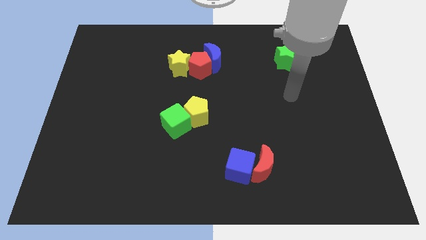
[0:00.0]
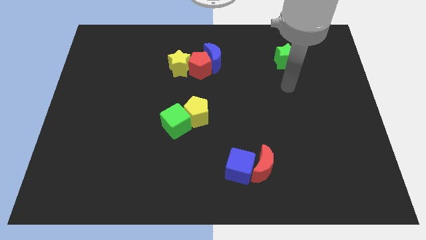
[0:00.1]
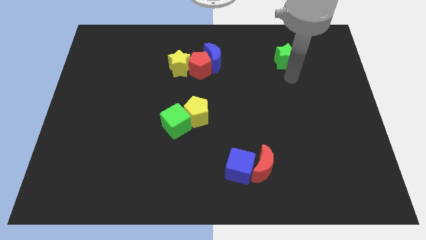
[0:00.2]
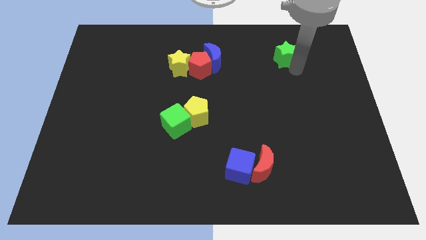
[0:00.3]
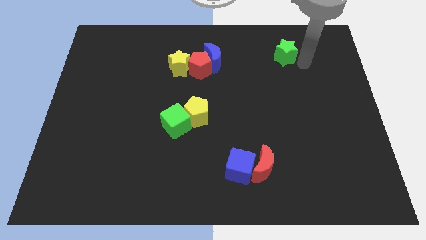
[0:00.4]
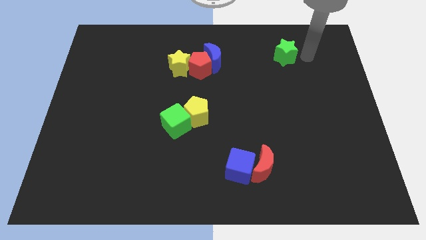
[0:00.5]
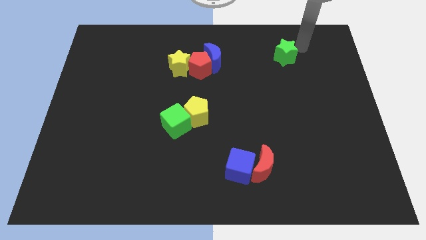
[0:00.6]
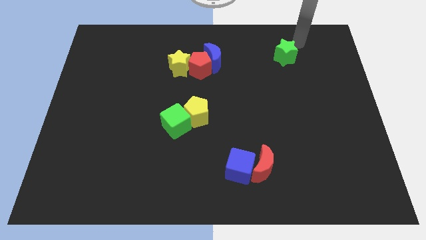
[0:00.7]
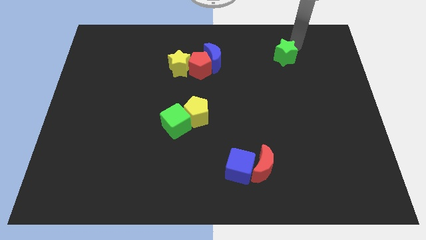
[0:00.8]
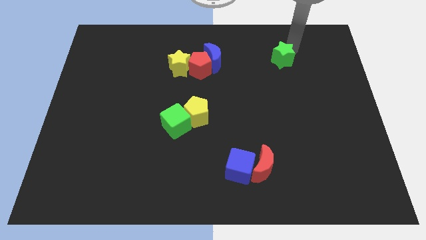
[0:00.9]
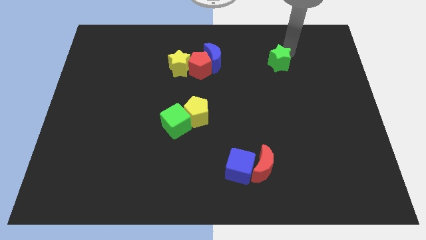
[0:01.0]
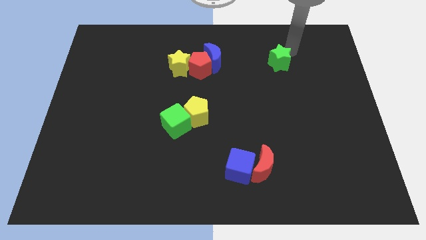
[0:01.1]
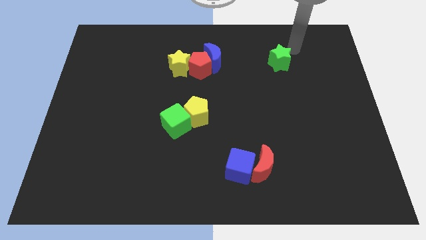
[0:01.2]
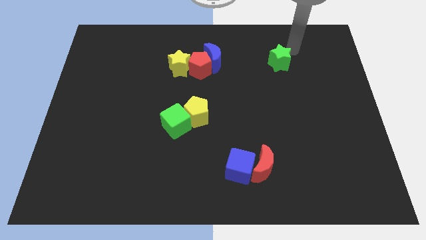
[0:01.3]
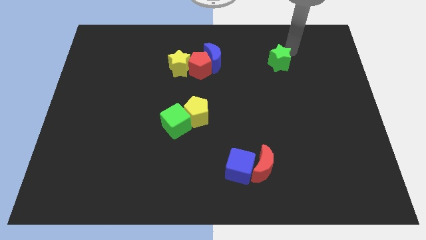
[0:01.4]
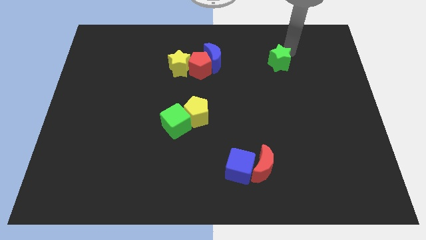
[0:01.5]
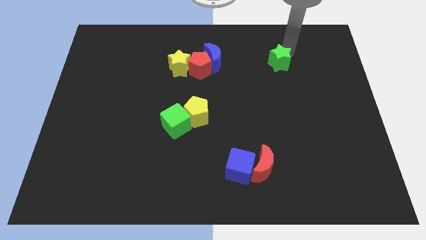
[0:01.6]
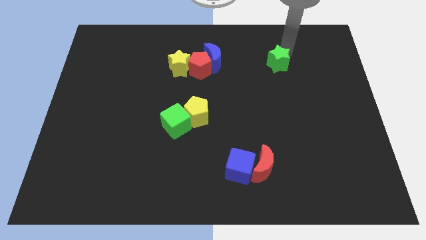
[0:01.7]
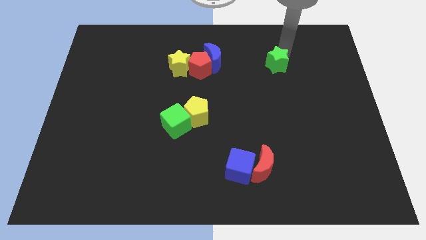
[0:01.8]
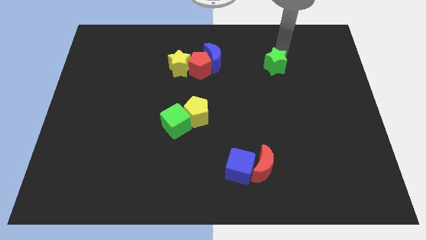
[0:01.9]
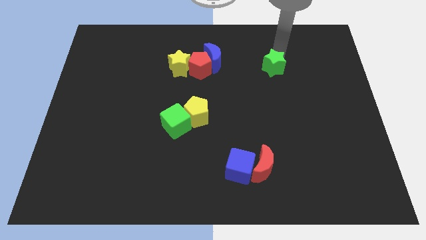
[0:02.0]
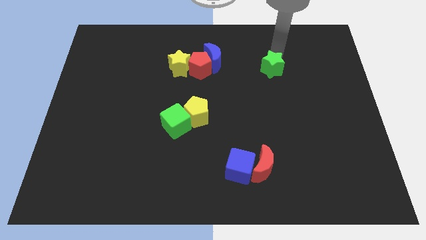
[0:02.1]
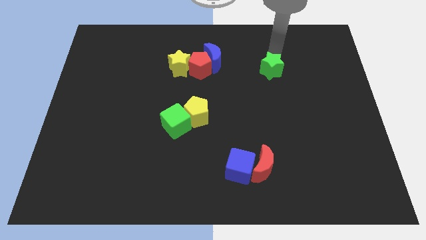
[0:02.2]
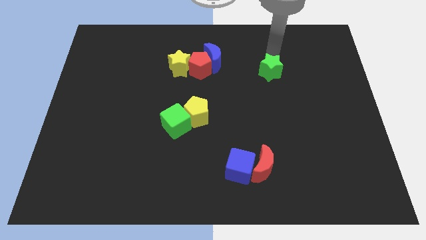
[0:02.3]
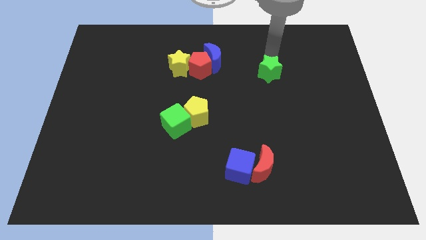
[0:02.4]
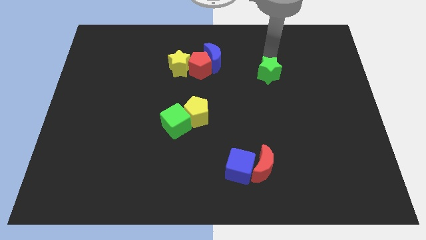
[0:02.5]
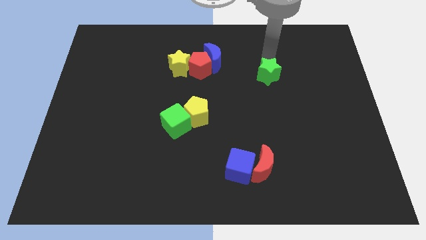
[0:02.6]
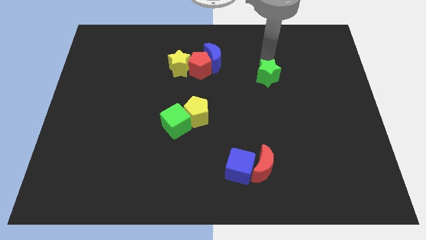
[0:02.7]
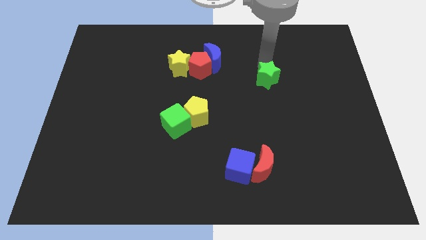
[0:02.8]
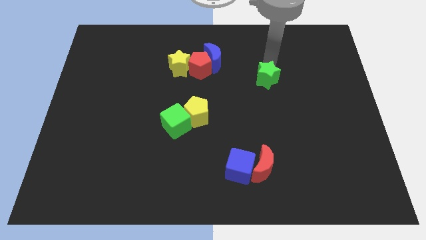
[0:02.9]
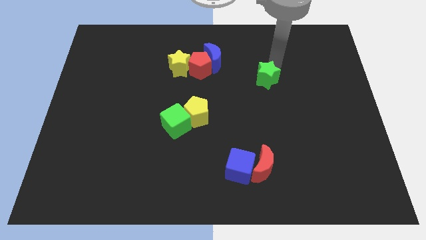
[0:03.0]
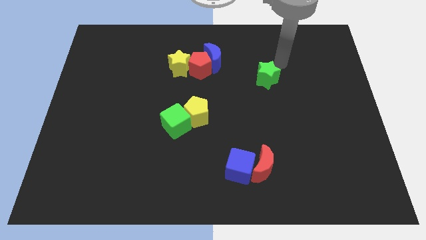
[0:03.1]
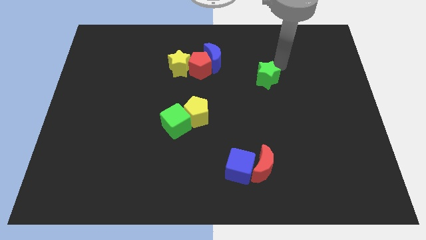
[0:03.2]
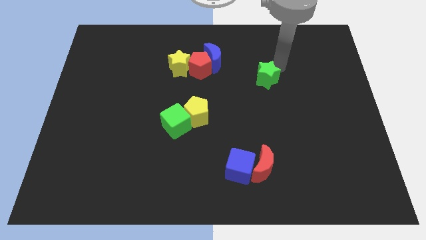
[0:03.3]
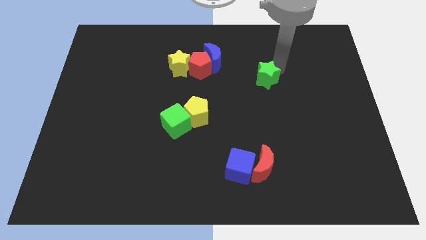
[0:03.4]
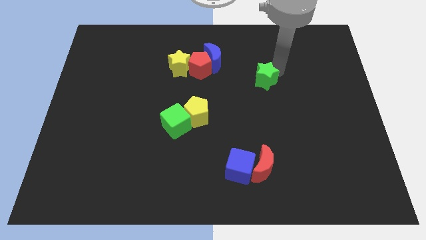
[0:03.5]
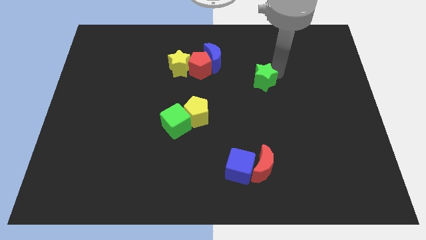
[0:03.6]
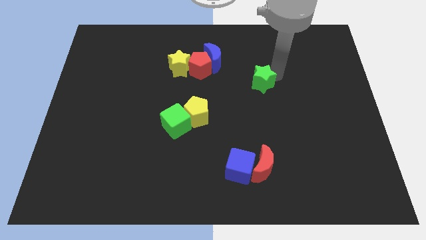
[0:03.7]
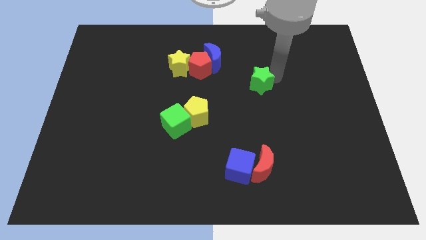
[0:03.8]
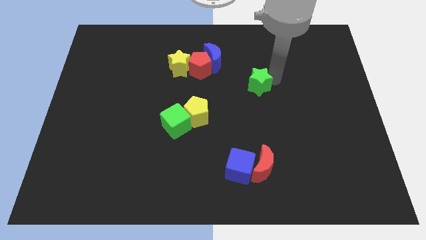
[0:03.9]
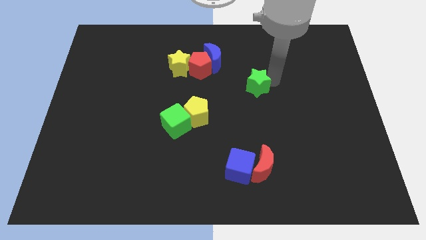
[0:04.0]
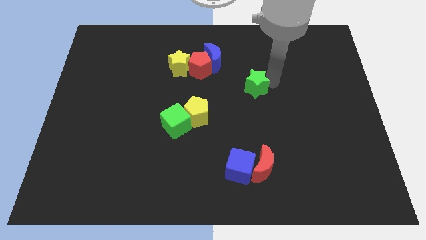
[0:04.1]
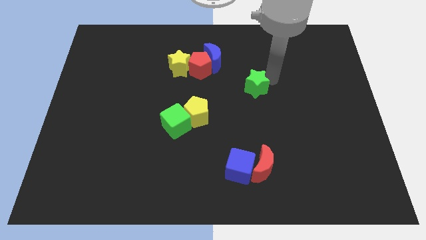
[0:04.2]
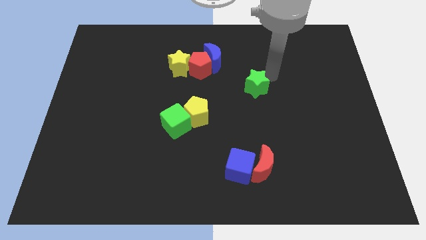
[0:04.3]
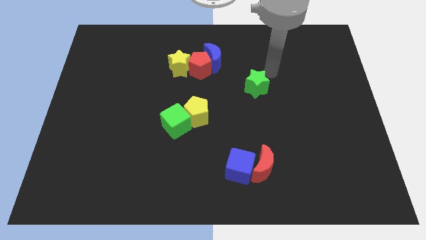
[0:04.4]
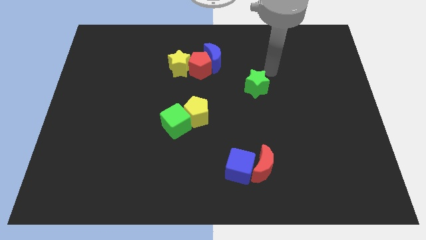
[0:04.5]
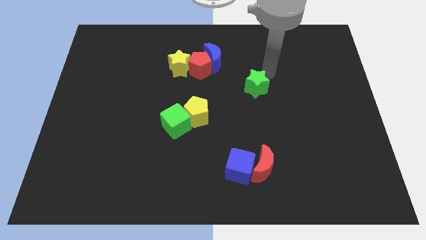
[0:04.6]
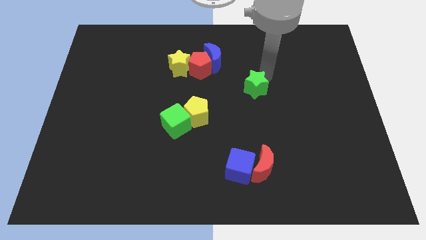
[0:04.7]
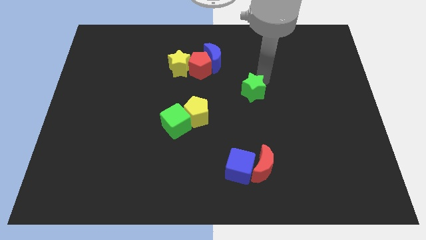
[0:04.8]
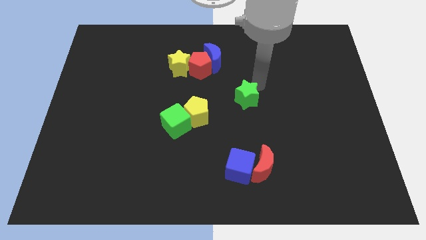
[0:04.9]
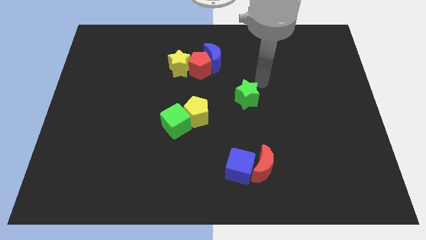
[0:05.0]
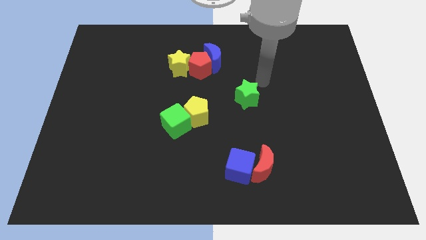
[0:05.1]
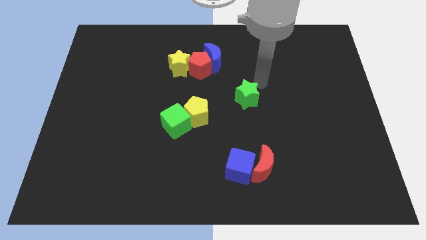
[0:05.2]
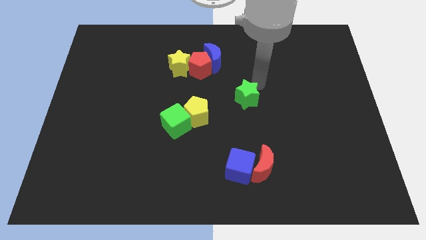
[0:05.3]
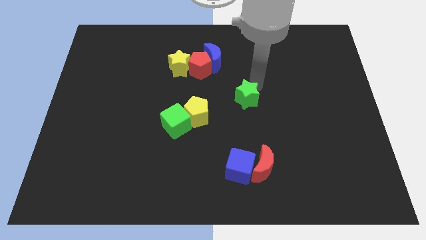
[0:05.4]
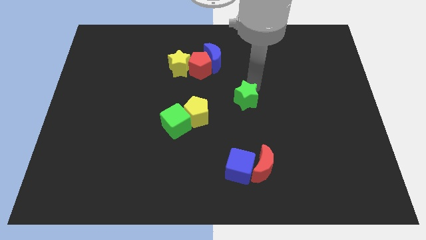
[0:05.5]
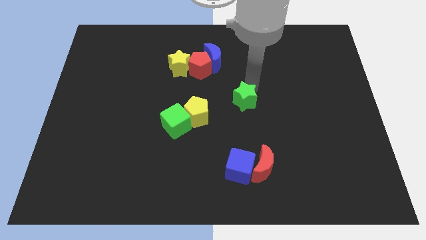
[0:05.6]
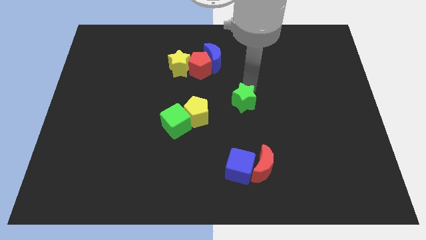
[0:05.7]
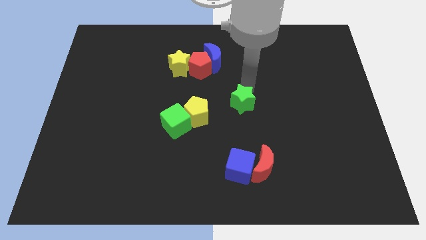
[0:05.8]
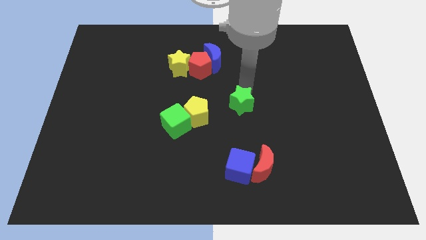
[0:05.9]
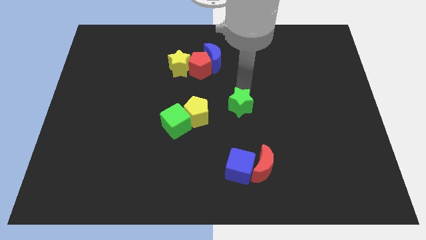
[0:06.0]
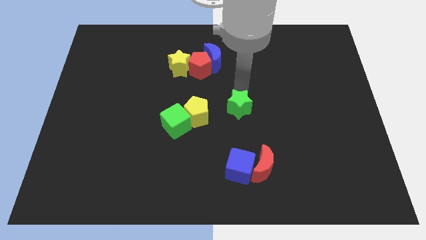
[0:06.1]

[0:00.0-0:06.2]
slide the green star diagonally down and left

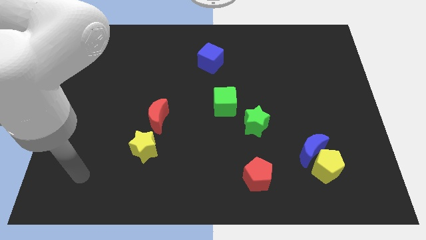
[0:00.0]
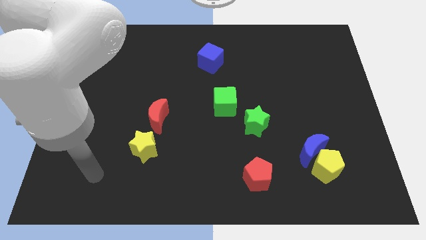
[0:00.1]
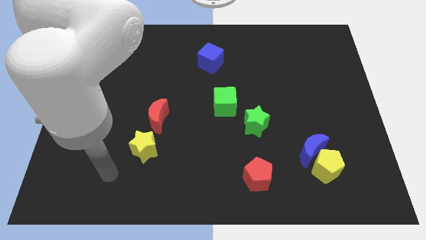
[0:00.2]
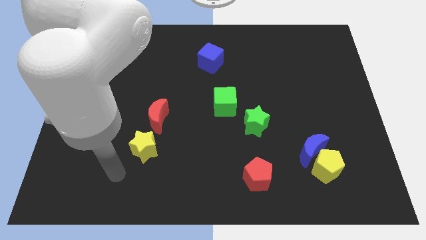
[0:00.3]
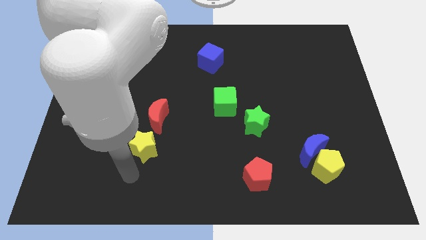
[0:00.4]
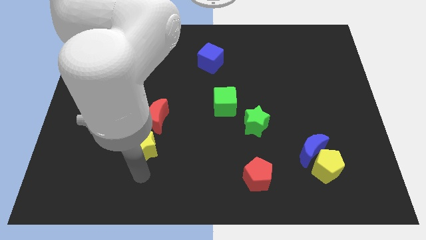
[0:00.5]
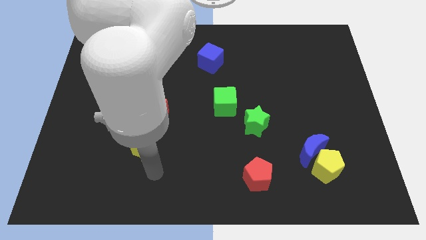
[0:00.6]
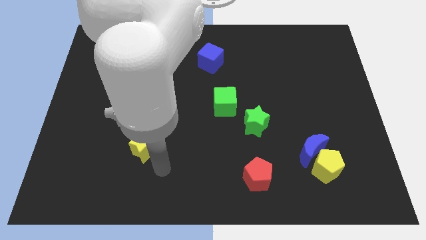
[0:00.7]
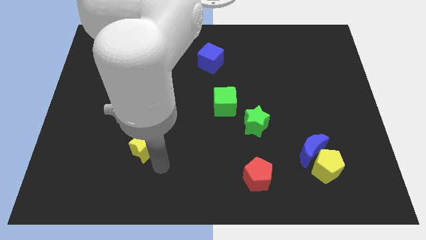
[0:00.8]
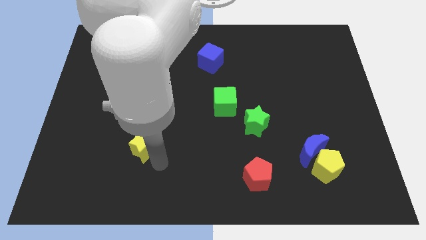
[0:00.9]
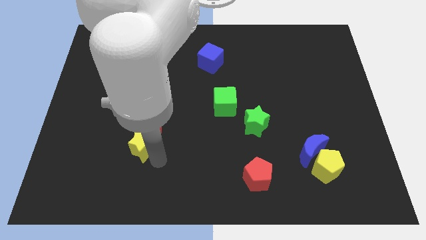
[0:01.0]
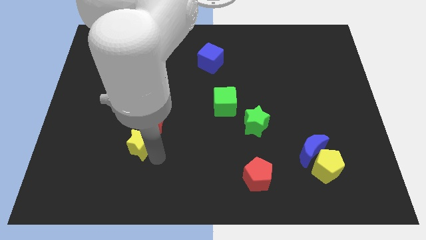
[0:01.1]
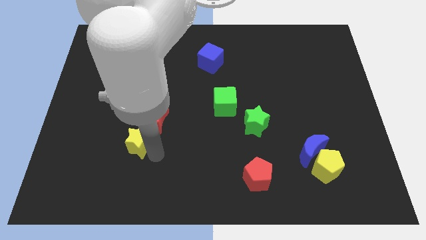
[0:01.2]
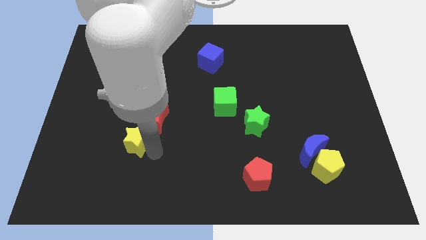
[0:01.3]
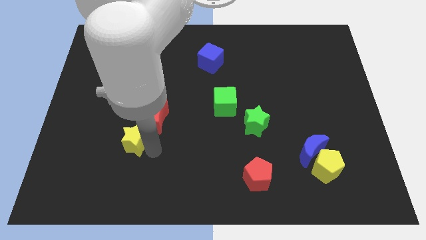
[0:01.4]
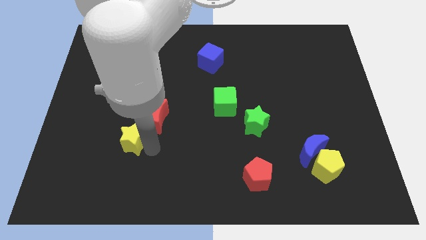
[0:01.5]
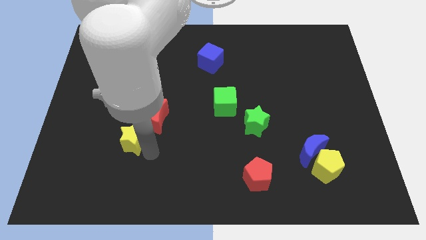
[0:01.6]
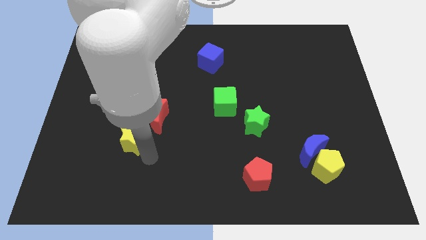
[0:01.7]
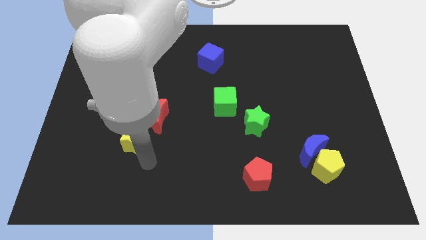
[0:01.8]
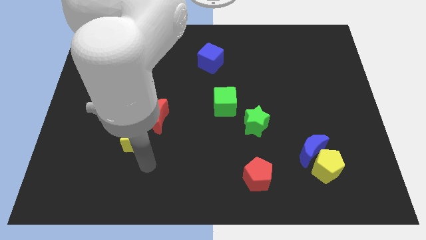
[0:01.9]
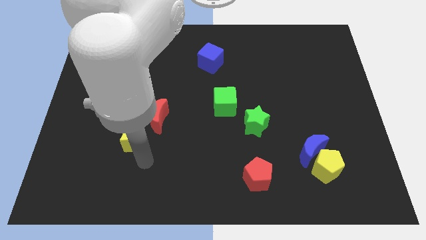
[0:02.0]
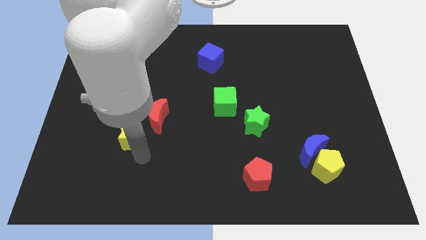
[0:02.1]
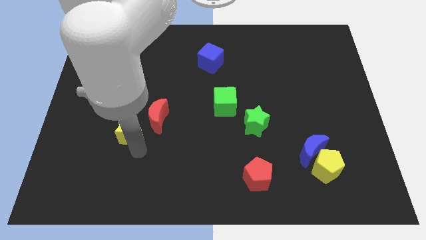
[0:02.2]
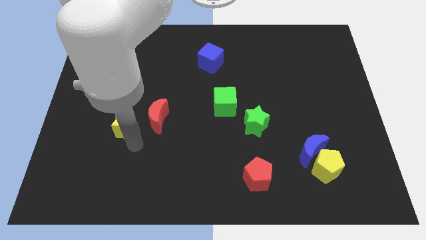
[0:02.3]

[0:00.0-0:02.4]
slightly push the yellow star up and left diagonally
